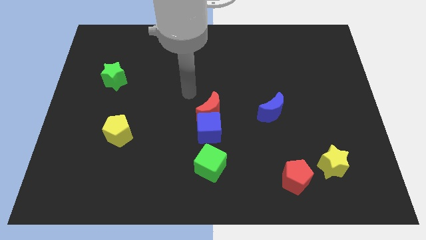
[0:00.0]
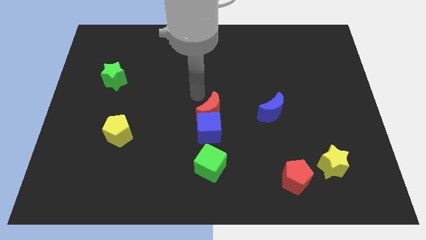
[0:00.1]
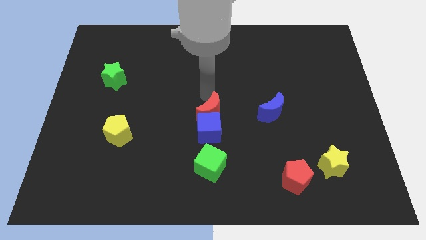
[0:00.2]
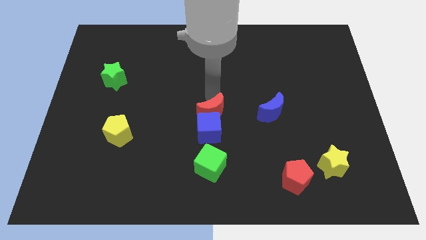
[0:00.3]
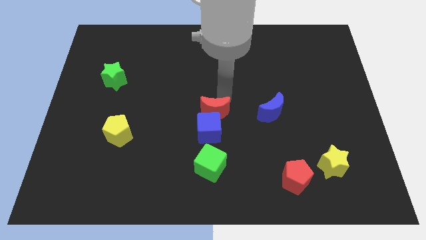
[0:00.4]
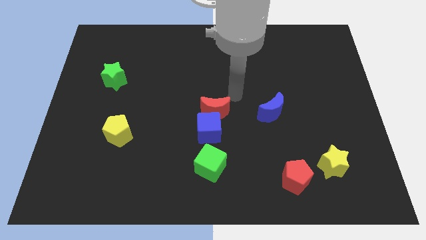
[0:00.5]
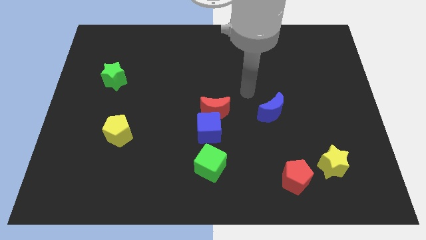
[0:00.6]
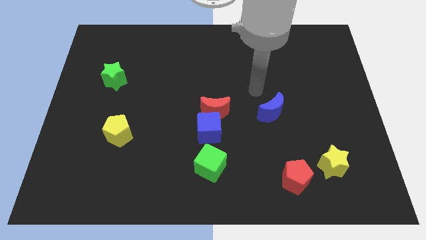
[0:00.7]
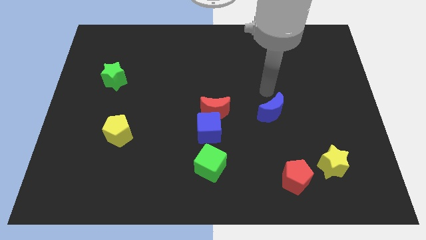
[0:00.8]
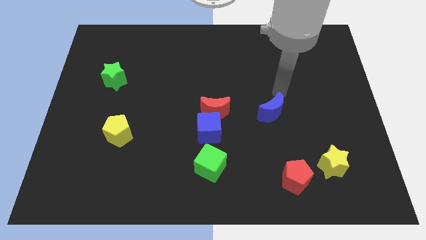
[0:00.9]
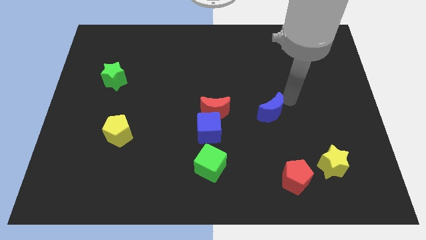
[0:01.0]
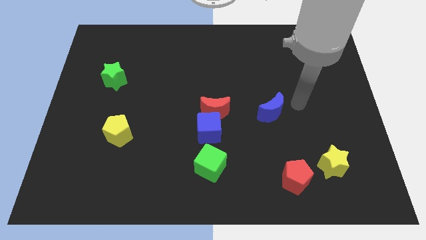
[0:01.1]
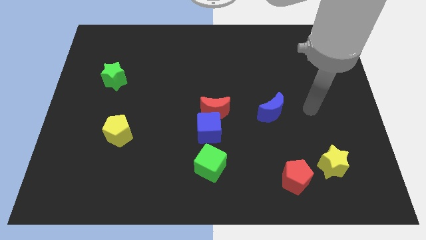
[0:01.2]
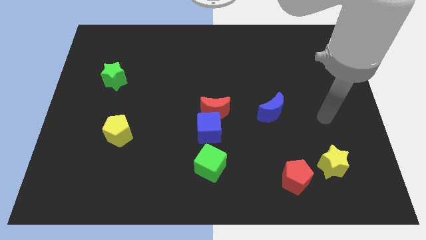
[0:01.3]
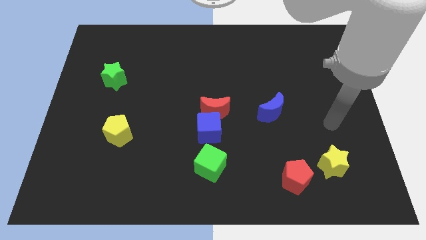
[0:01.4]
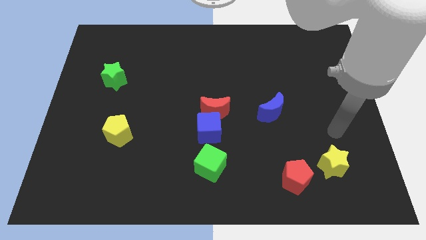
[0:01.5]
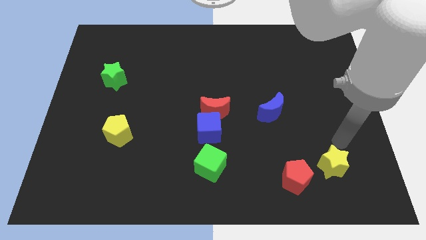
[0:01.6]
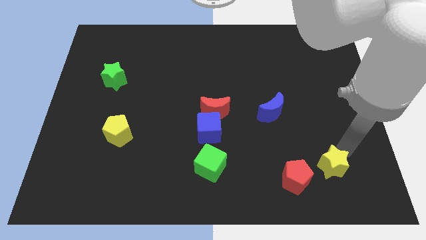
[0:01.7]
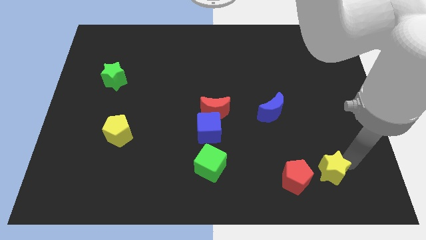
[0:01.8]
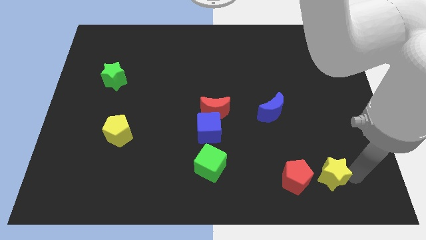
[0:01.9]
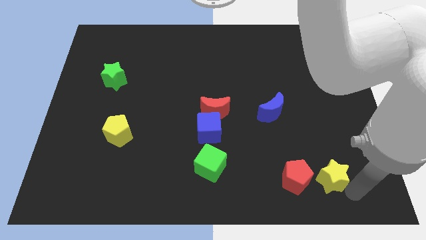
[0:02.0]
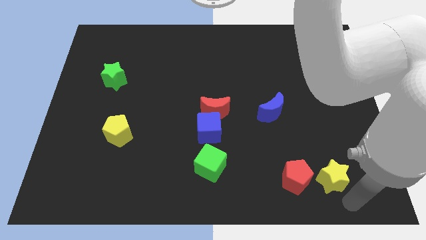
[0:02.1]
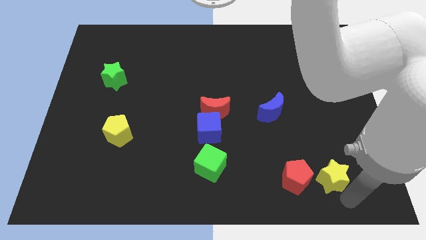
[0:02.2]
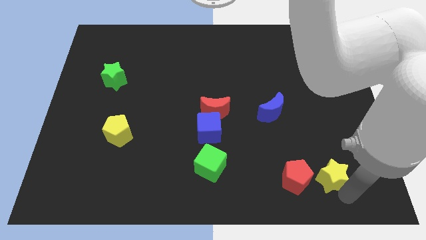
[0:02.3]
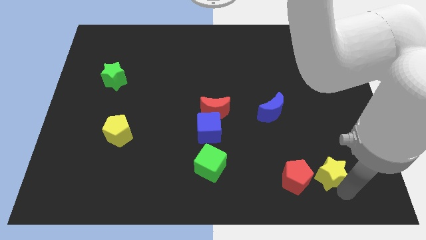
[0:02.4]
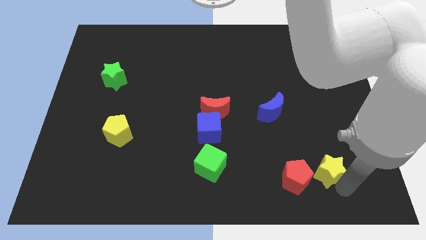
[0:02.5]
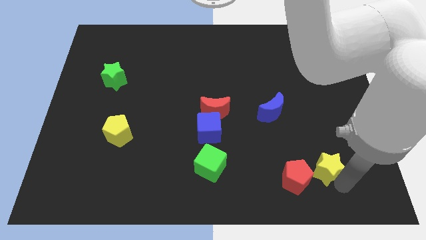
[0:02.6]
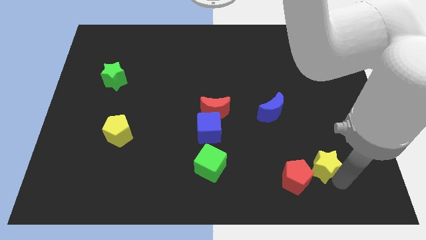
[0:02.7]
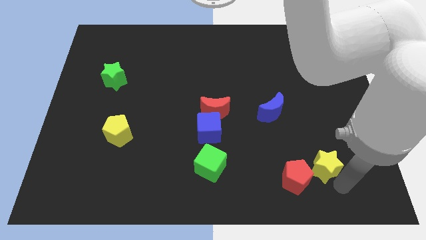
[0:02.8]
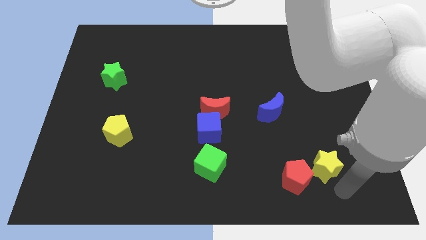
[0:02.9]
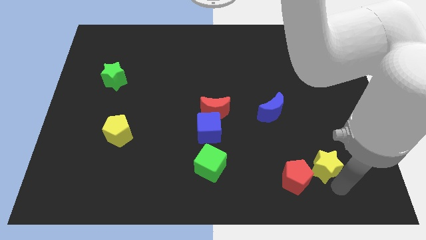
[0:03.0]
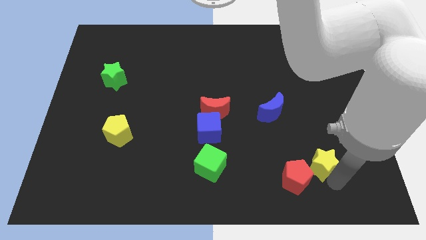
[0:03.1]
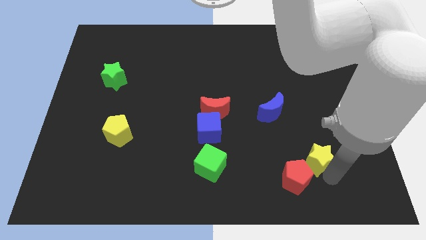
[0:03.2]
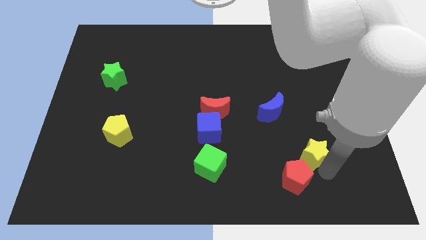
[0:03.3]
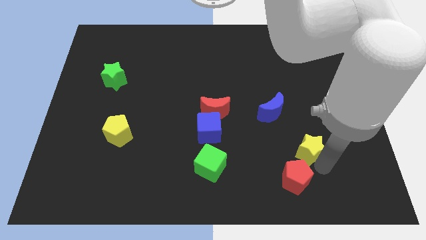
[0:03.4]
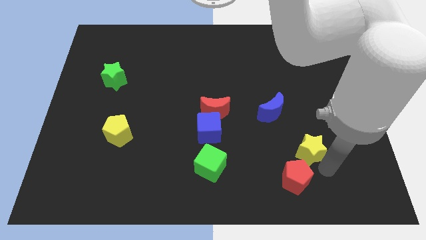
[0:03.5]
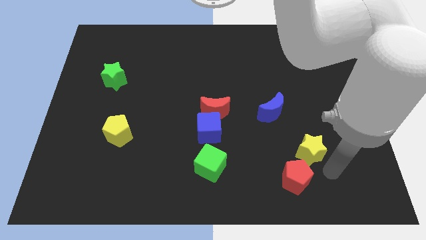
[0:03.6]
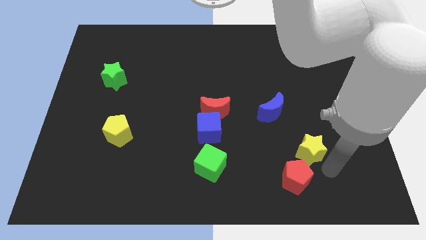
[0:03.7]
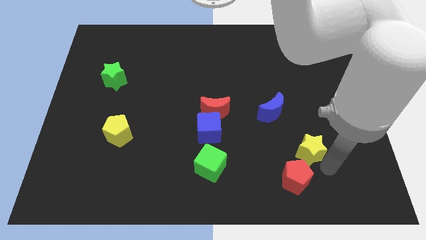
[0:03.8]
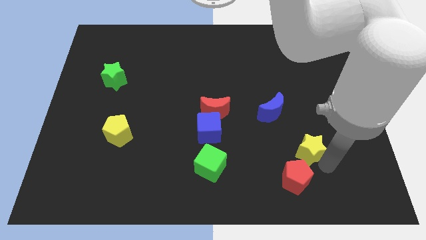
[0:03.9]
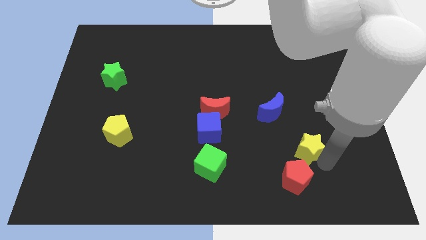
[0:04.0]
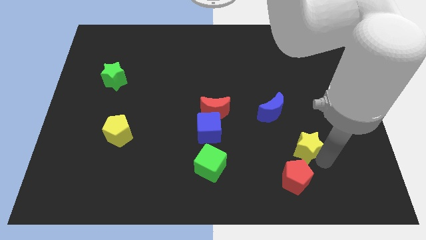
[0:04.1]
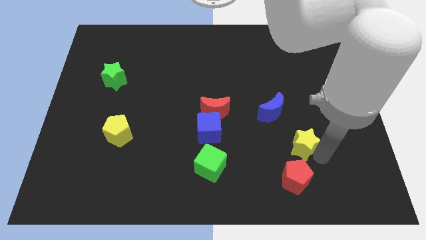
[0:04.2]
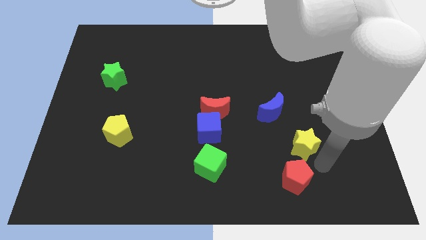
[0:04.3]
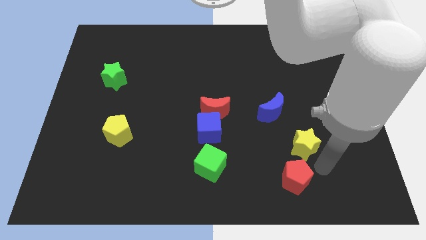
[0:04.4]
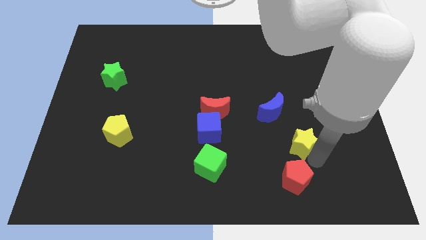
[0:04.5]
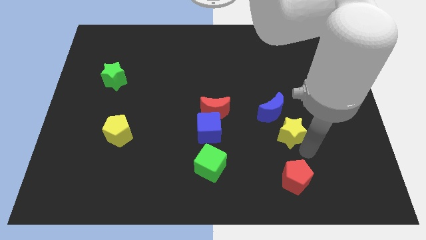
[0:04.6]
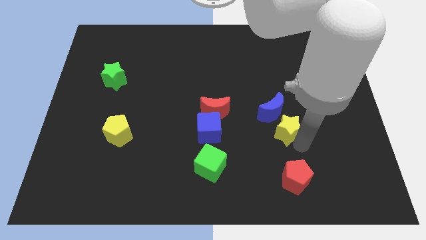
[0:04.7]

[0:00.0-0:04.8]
slide the yellow star towards the blue moon

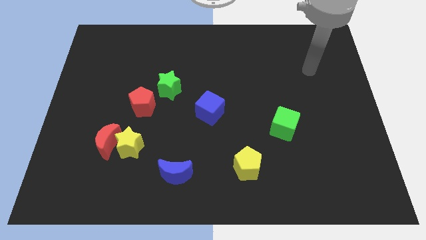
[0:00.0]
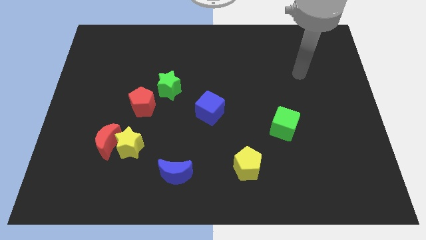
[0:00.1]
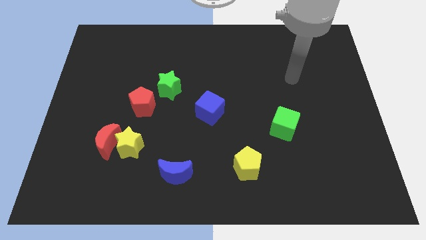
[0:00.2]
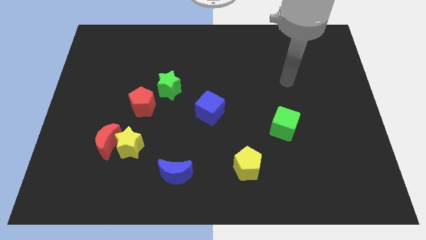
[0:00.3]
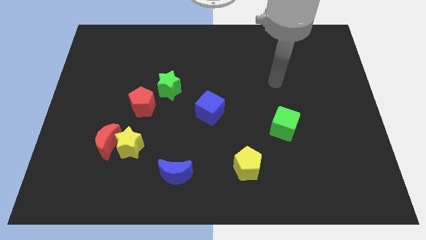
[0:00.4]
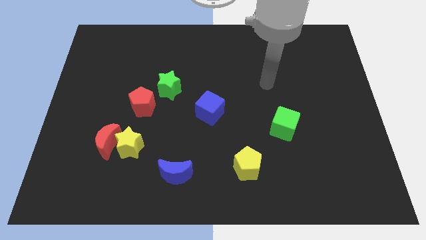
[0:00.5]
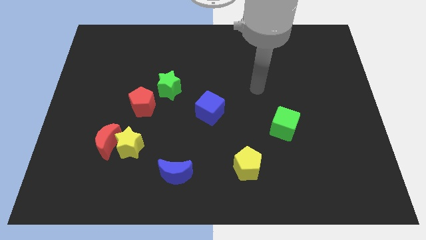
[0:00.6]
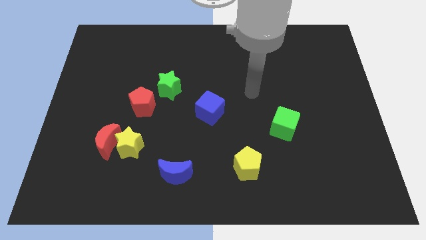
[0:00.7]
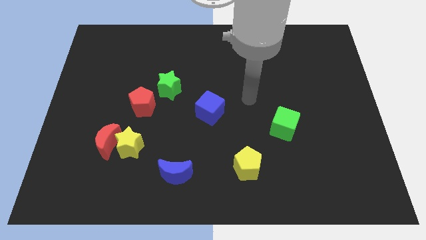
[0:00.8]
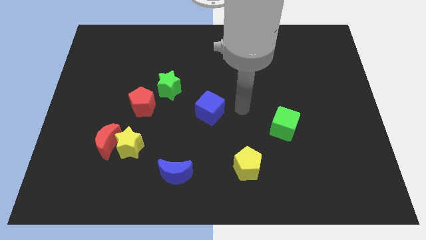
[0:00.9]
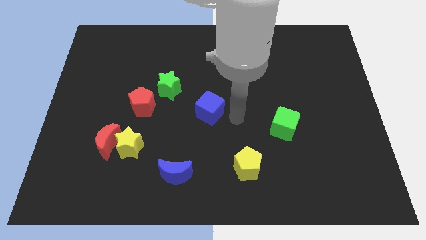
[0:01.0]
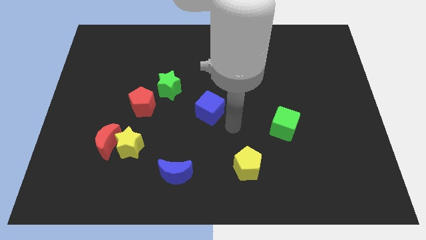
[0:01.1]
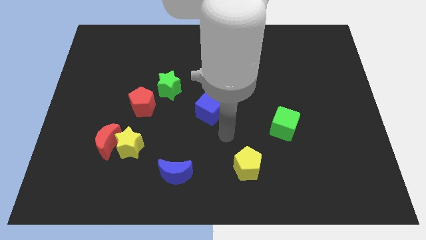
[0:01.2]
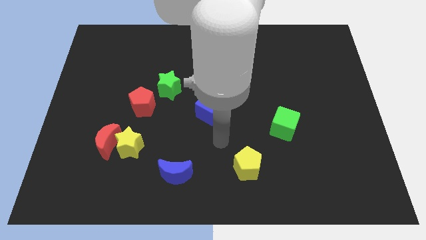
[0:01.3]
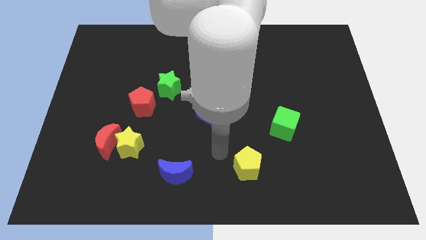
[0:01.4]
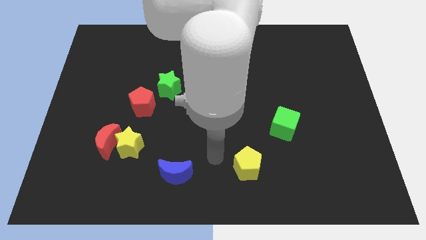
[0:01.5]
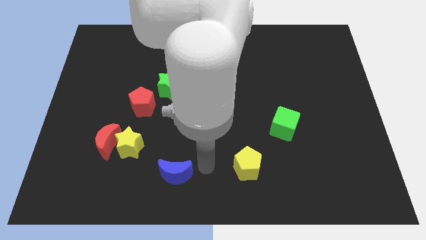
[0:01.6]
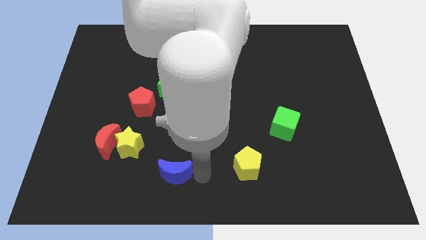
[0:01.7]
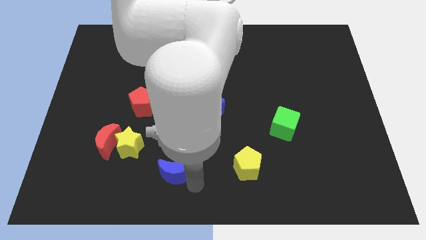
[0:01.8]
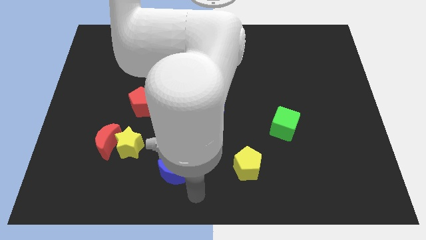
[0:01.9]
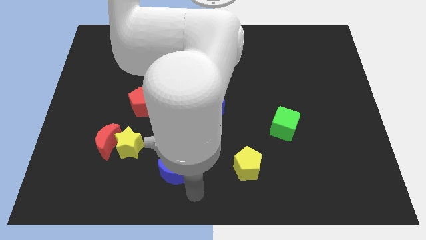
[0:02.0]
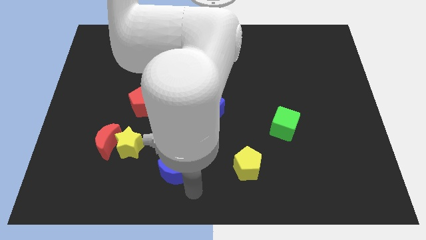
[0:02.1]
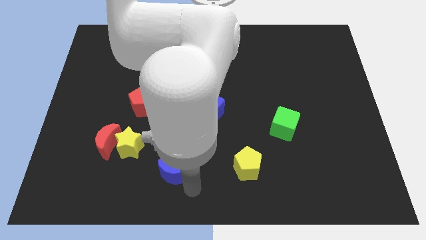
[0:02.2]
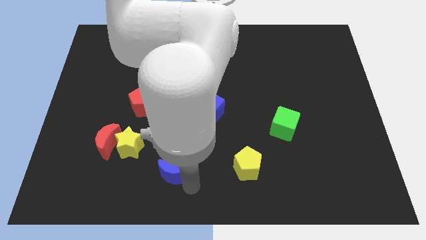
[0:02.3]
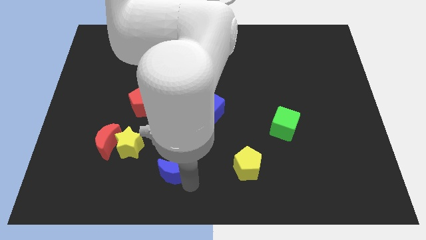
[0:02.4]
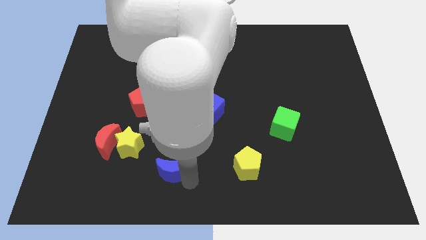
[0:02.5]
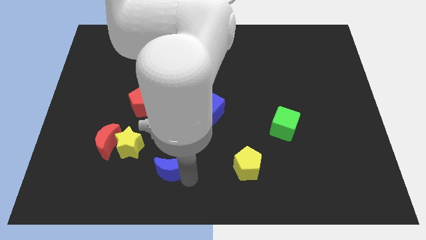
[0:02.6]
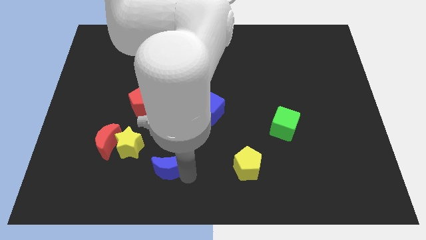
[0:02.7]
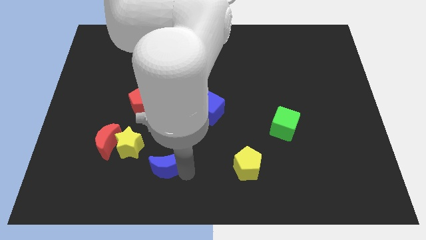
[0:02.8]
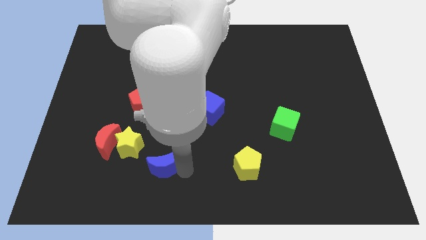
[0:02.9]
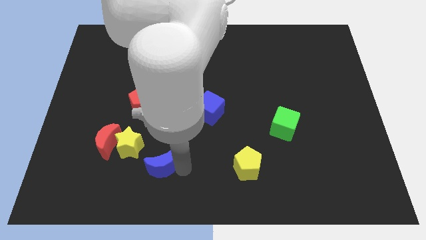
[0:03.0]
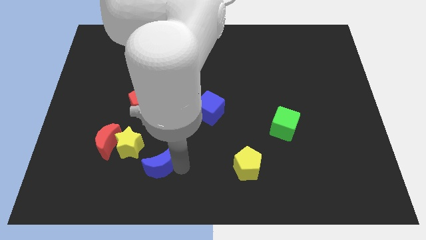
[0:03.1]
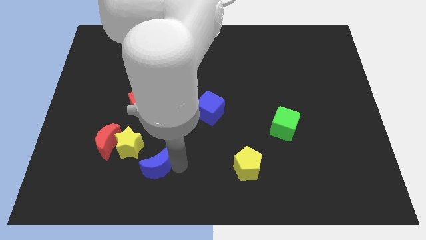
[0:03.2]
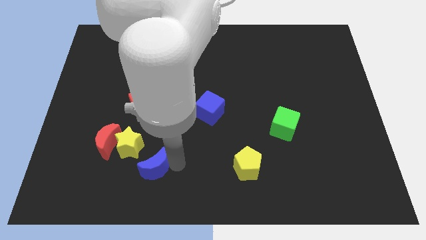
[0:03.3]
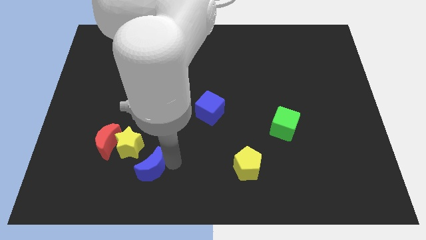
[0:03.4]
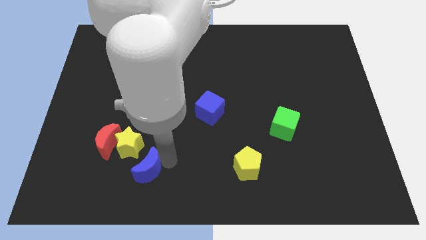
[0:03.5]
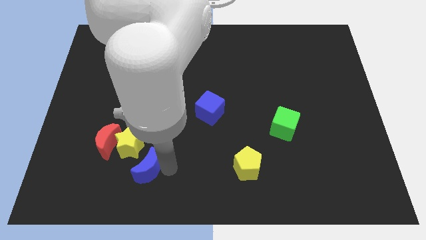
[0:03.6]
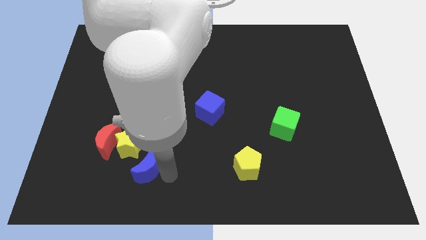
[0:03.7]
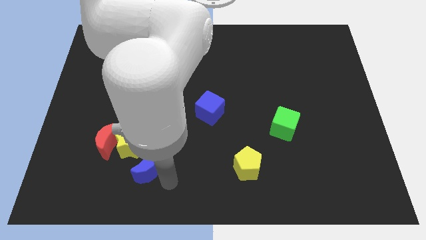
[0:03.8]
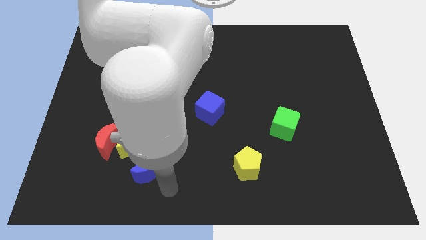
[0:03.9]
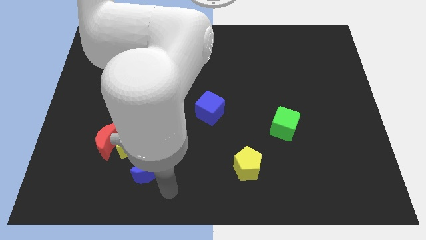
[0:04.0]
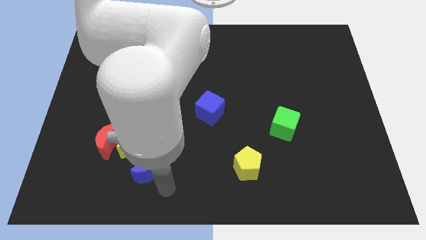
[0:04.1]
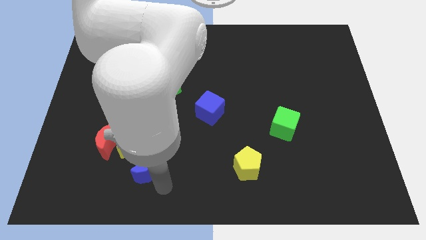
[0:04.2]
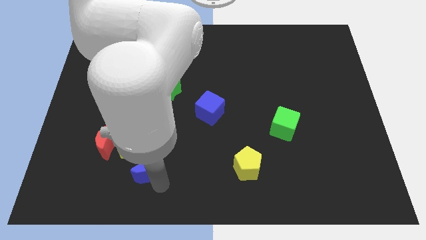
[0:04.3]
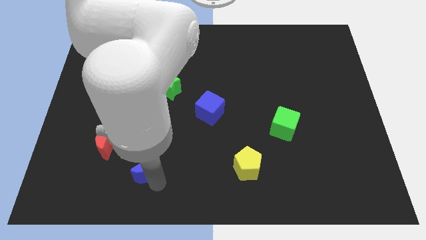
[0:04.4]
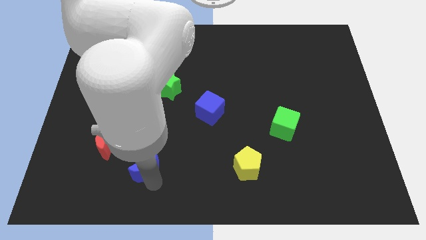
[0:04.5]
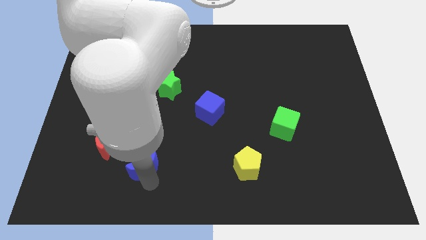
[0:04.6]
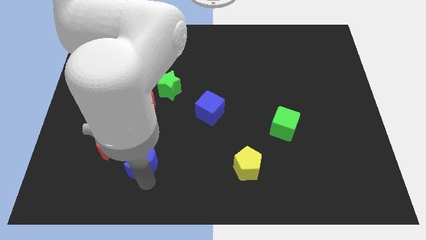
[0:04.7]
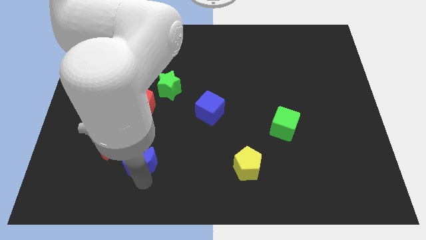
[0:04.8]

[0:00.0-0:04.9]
put the blue moon to the yellow star
